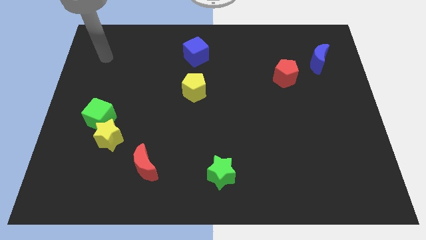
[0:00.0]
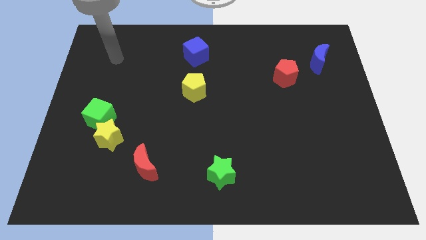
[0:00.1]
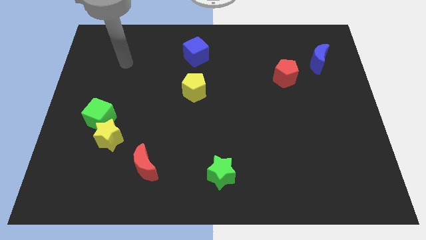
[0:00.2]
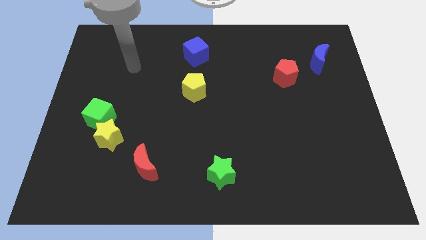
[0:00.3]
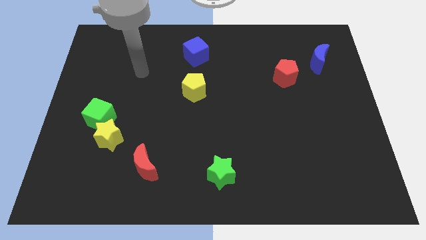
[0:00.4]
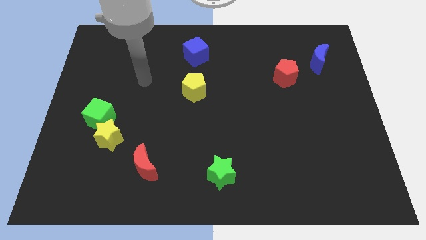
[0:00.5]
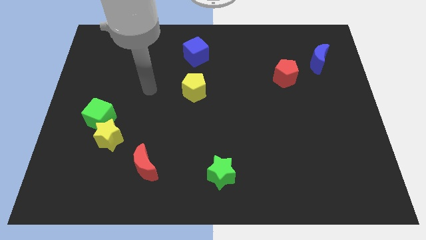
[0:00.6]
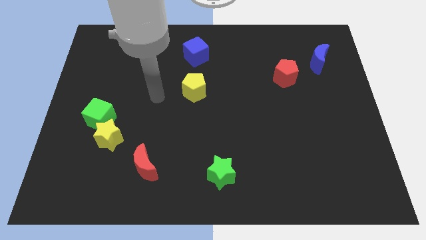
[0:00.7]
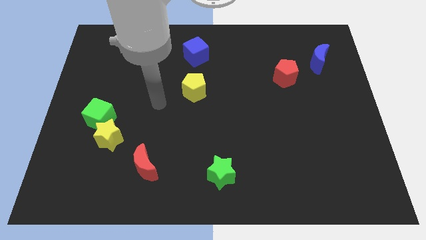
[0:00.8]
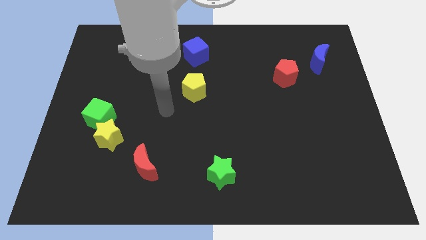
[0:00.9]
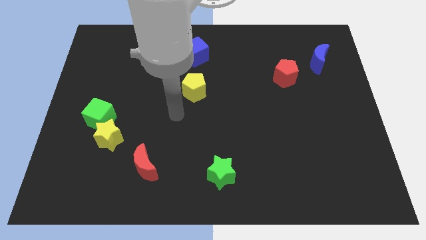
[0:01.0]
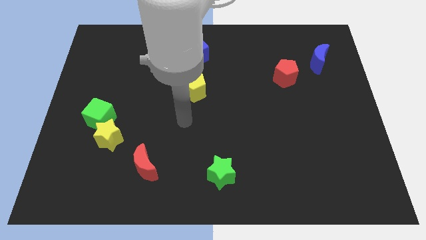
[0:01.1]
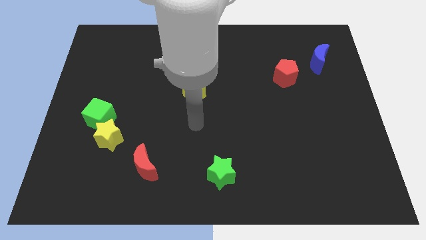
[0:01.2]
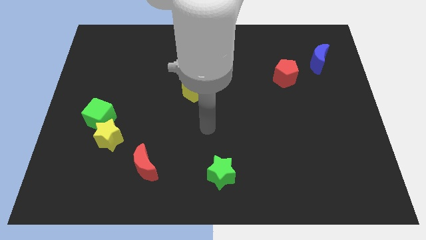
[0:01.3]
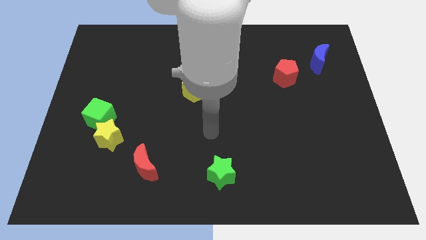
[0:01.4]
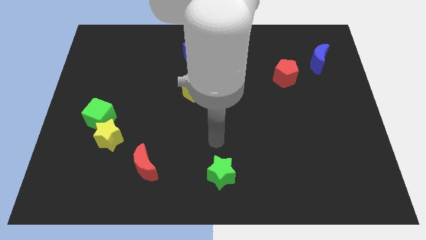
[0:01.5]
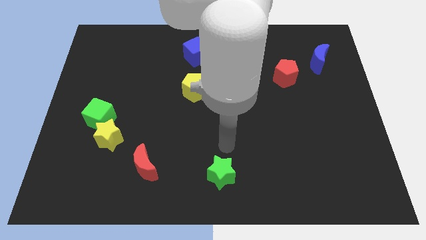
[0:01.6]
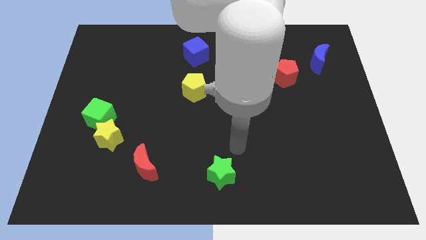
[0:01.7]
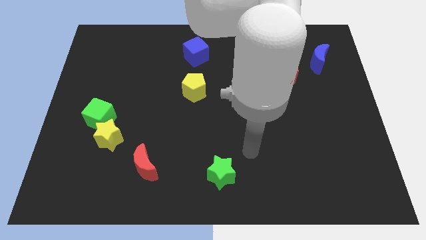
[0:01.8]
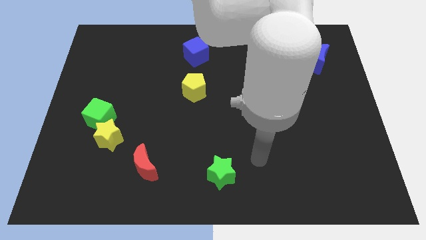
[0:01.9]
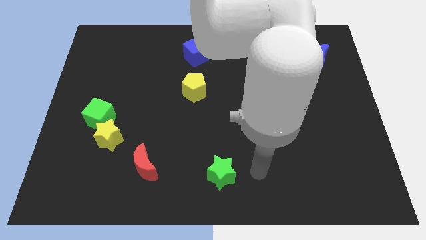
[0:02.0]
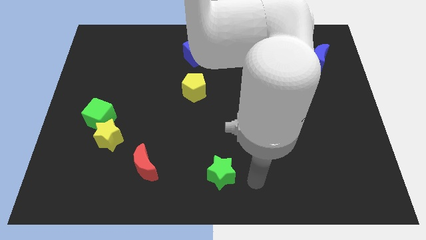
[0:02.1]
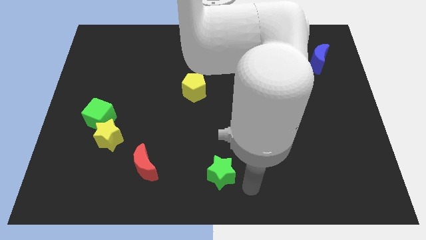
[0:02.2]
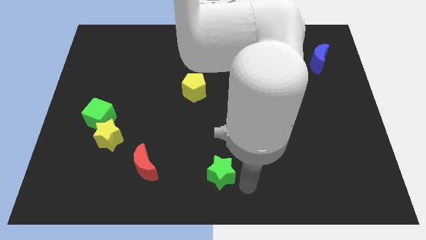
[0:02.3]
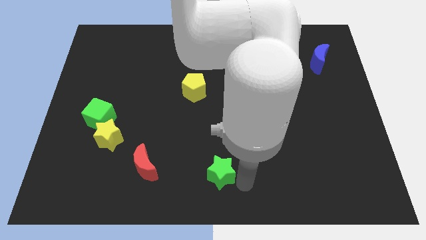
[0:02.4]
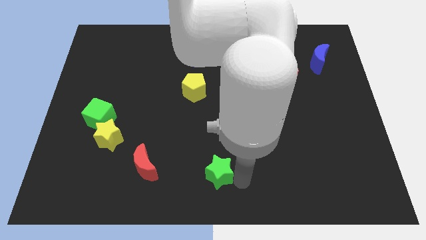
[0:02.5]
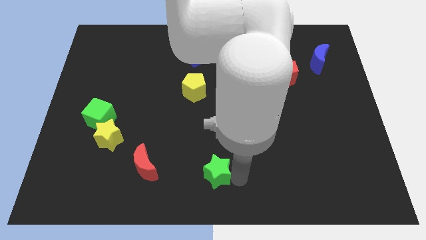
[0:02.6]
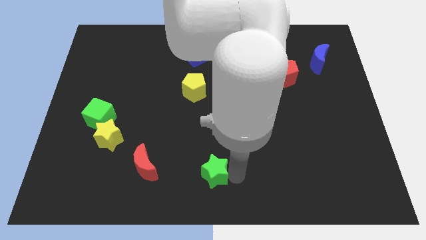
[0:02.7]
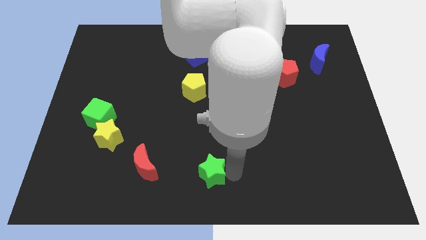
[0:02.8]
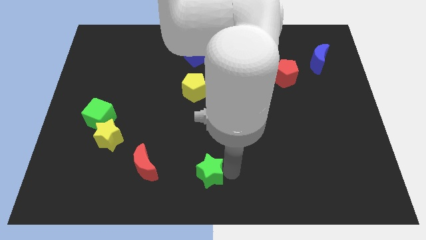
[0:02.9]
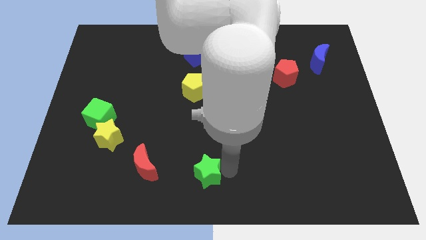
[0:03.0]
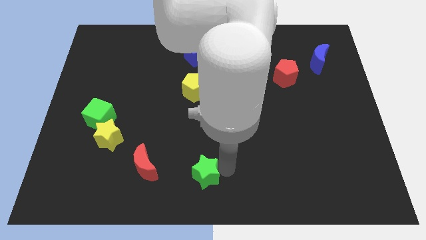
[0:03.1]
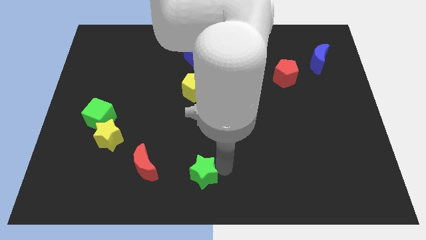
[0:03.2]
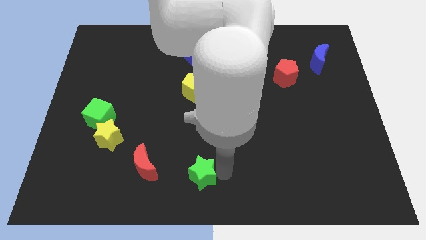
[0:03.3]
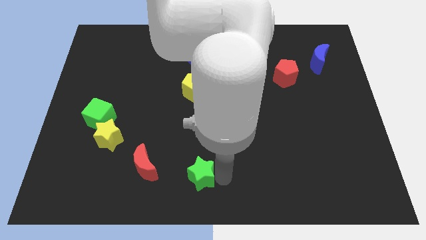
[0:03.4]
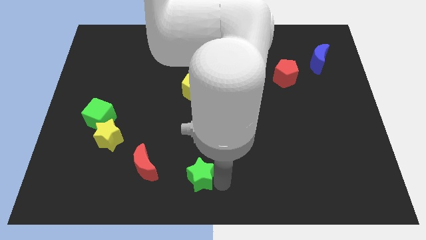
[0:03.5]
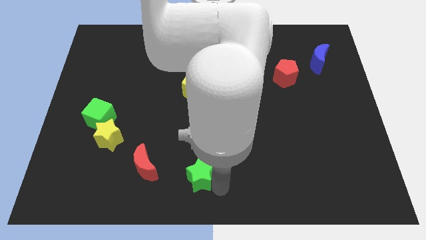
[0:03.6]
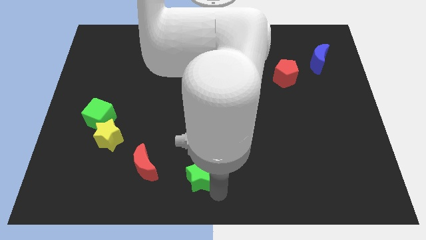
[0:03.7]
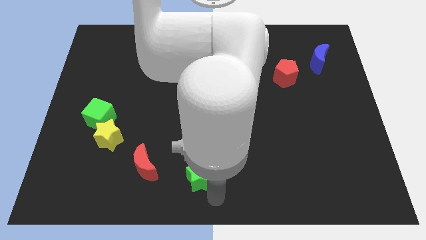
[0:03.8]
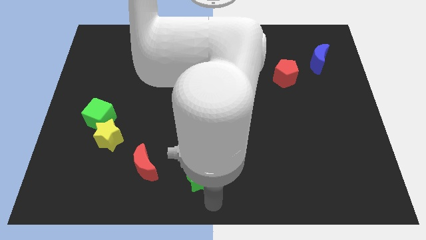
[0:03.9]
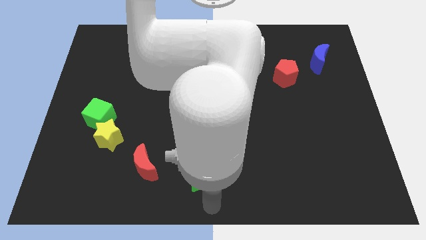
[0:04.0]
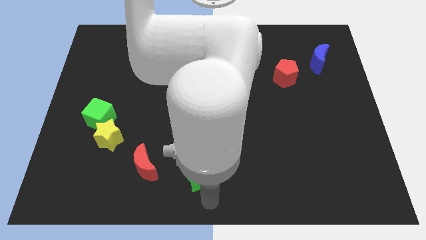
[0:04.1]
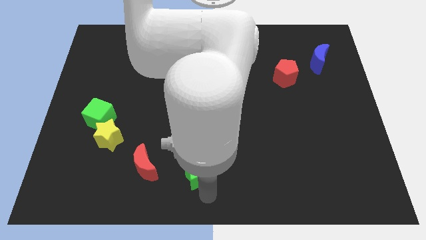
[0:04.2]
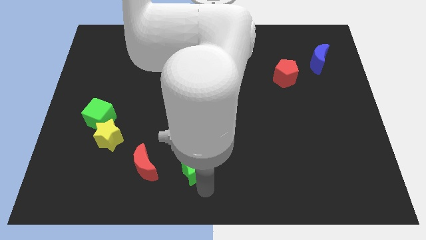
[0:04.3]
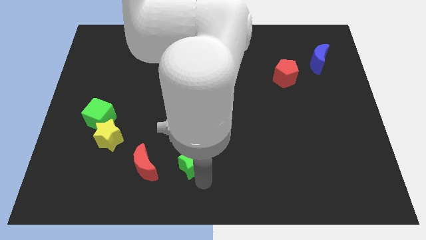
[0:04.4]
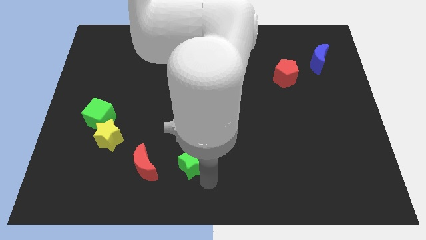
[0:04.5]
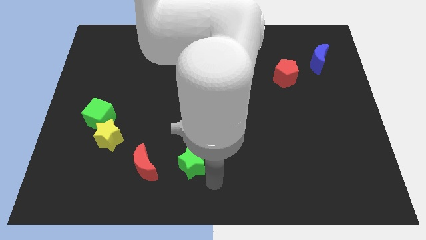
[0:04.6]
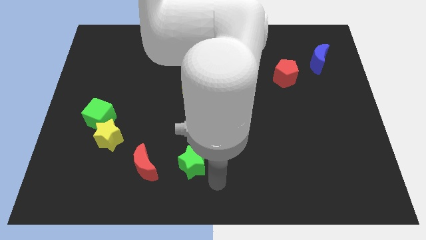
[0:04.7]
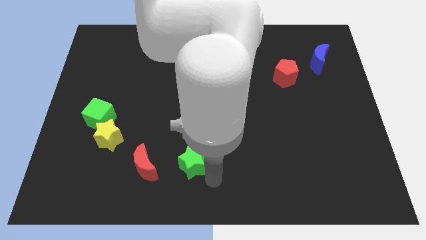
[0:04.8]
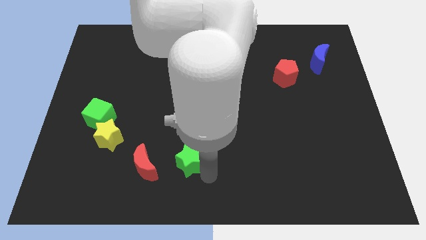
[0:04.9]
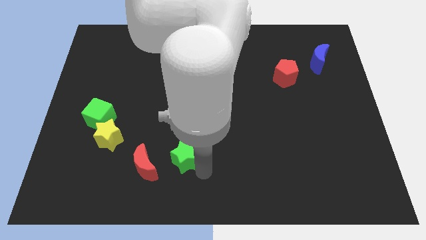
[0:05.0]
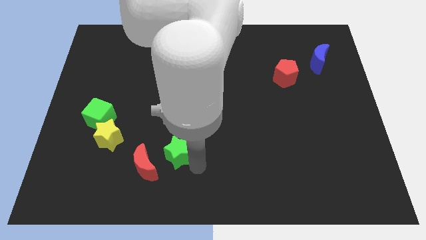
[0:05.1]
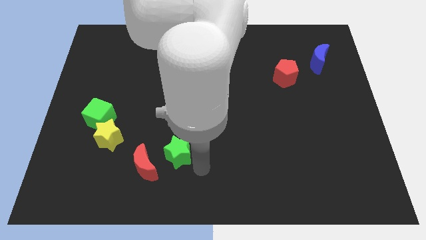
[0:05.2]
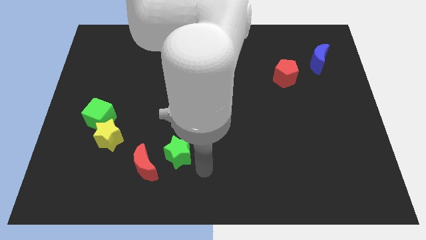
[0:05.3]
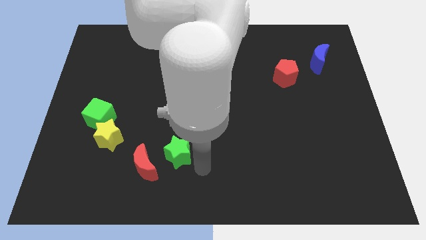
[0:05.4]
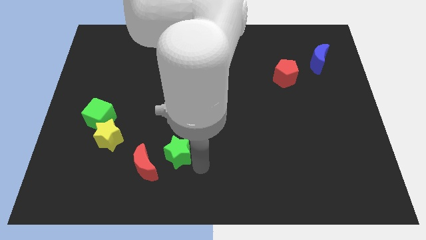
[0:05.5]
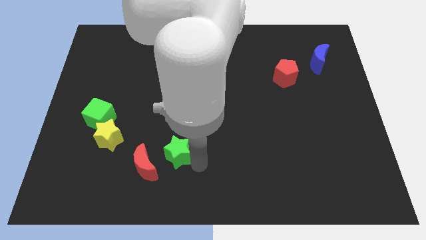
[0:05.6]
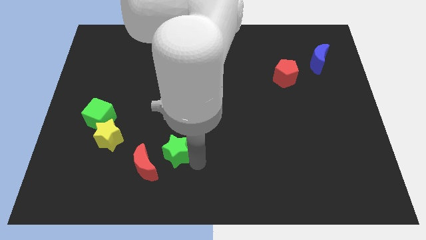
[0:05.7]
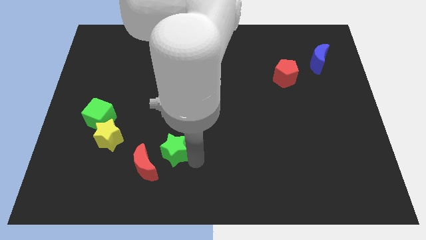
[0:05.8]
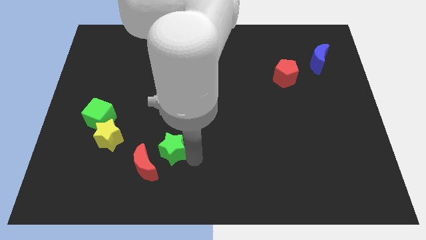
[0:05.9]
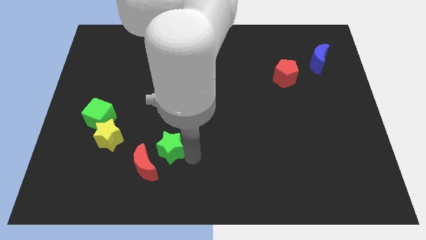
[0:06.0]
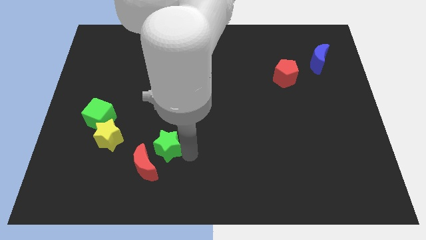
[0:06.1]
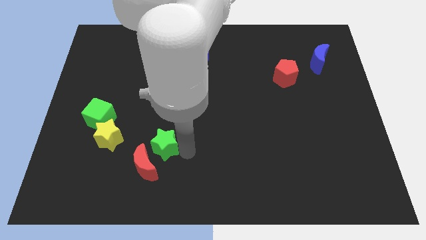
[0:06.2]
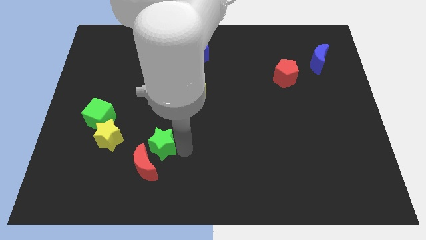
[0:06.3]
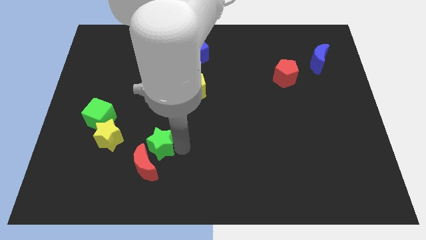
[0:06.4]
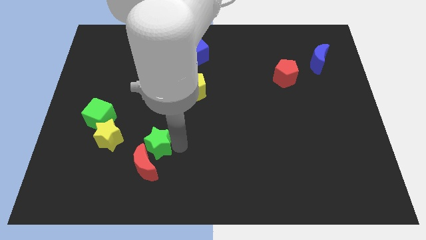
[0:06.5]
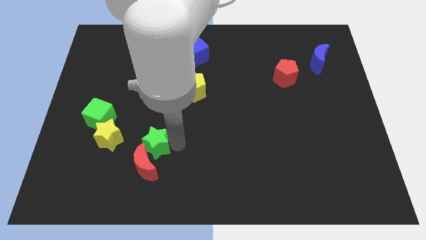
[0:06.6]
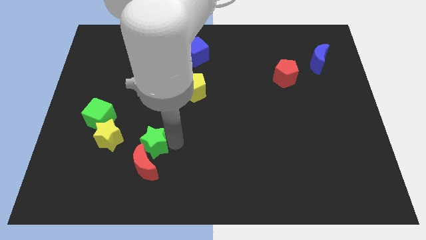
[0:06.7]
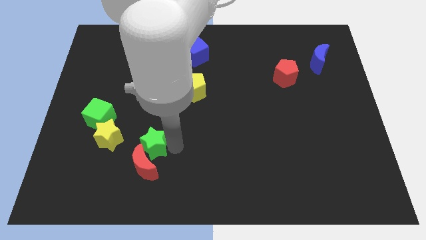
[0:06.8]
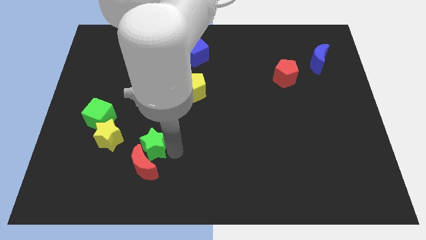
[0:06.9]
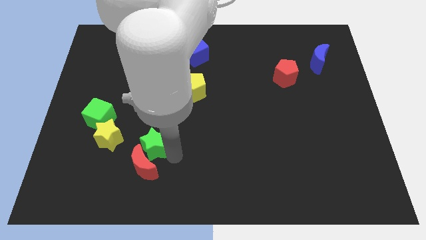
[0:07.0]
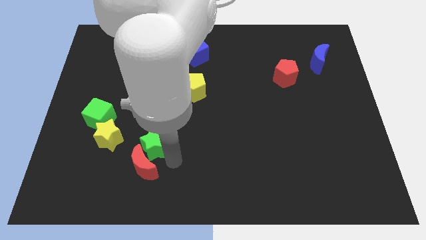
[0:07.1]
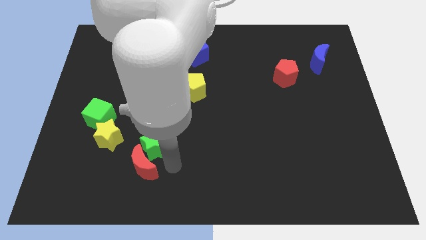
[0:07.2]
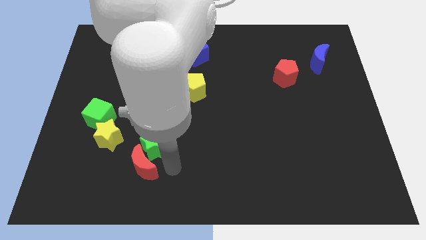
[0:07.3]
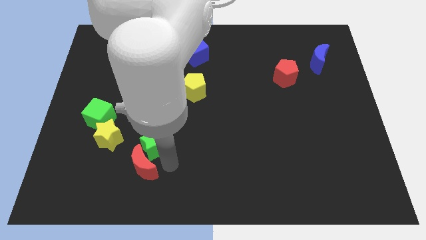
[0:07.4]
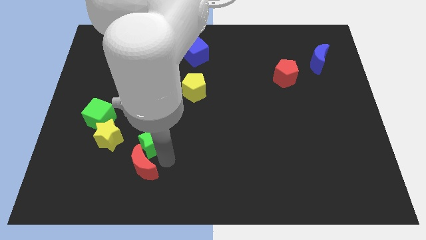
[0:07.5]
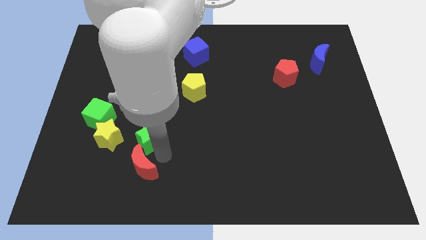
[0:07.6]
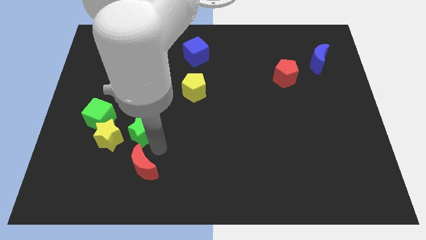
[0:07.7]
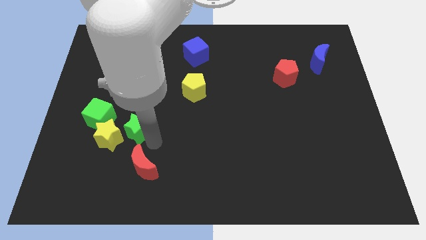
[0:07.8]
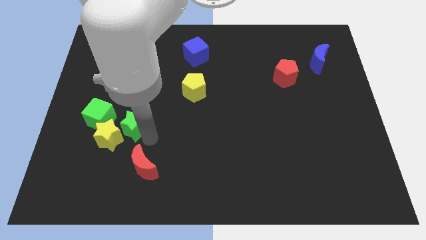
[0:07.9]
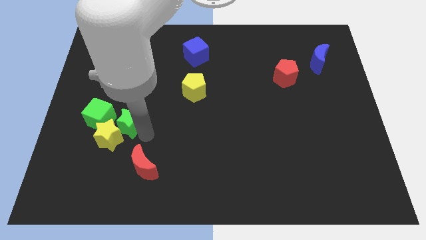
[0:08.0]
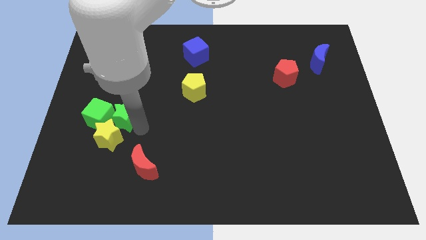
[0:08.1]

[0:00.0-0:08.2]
push the green star towards the green cube
